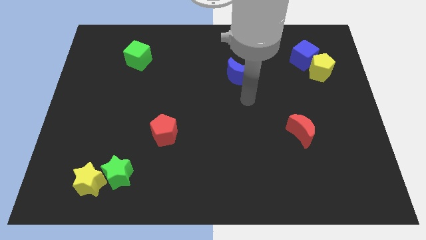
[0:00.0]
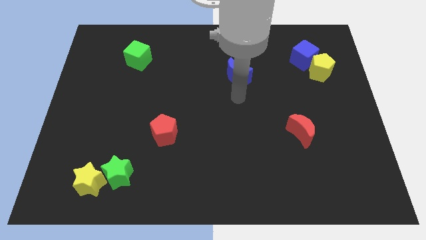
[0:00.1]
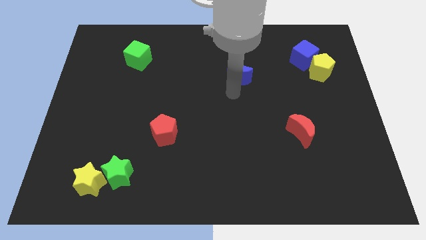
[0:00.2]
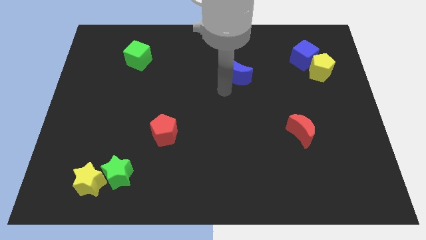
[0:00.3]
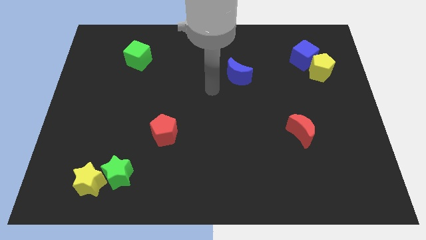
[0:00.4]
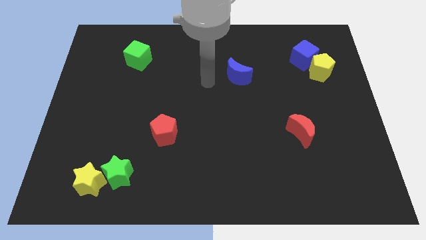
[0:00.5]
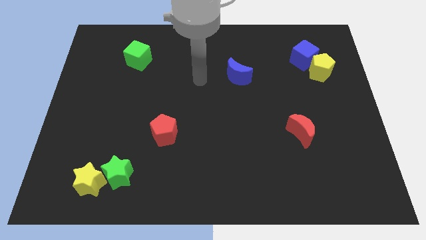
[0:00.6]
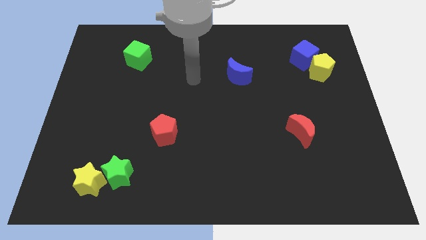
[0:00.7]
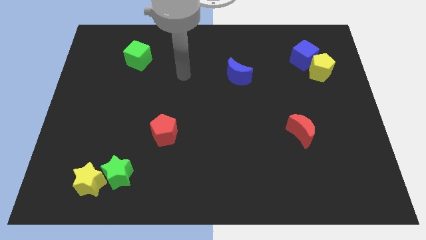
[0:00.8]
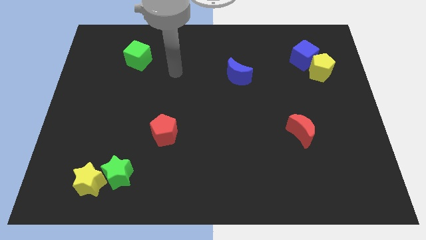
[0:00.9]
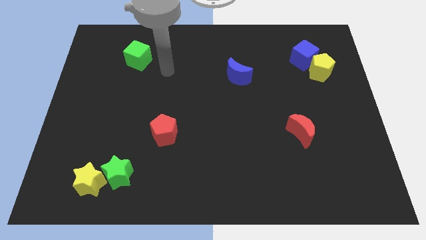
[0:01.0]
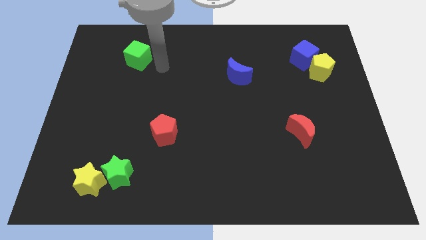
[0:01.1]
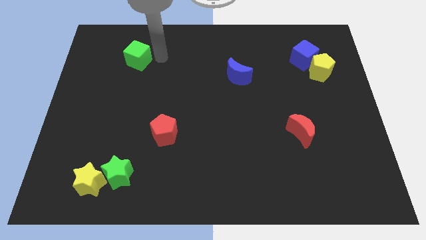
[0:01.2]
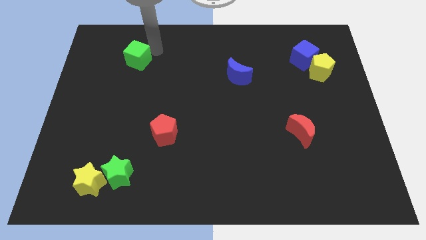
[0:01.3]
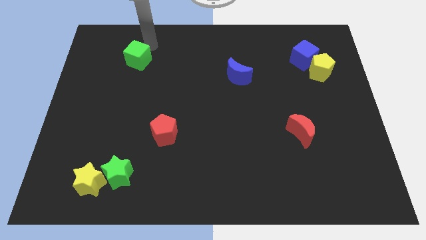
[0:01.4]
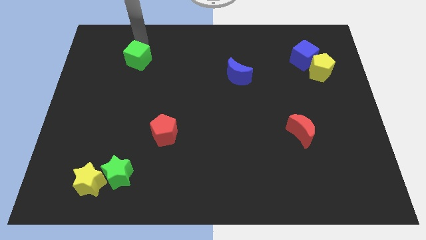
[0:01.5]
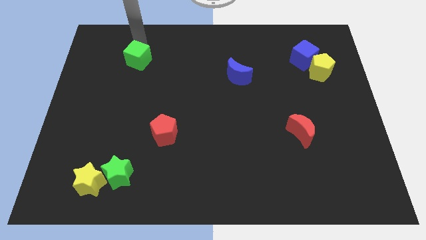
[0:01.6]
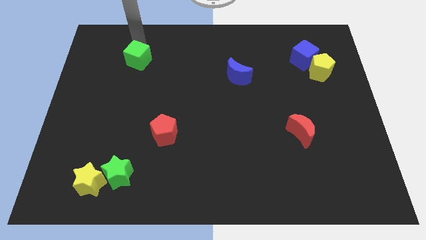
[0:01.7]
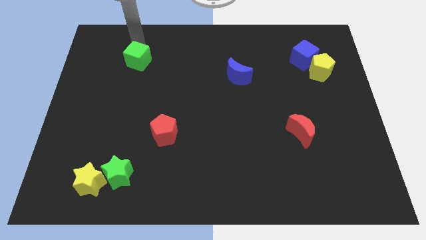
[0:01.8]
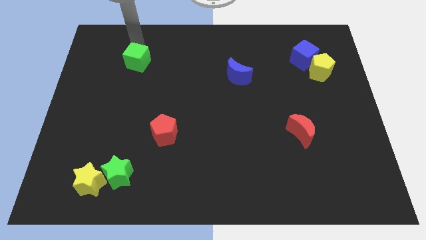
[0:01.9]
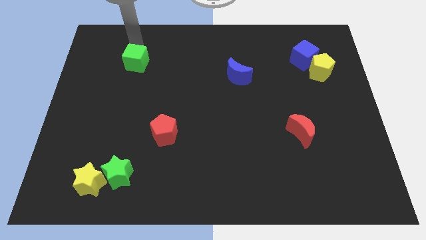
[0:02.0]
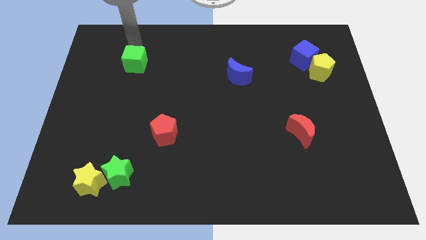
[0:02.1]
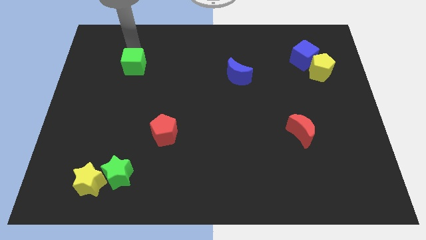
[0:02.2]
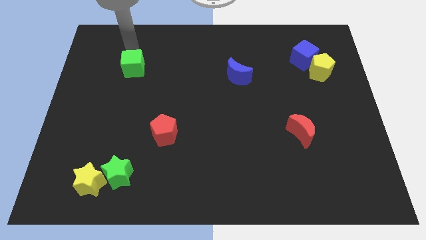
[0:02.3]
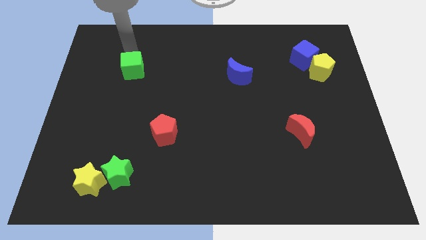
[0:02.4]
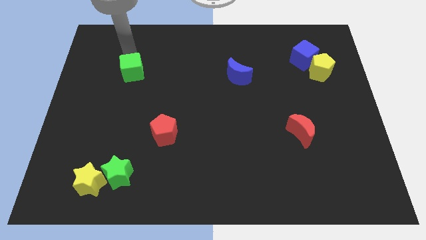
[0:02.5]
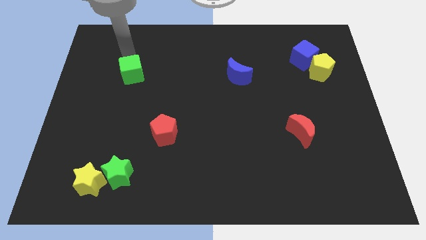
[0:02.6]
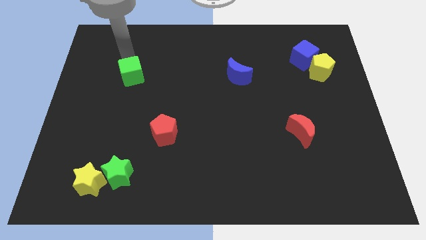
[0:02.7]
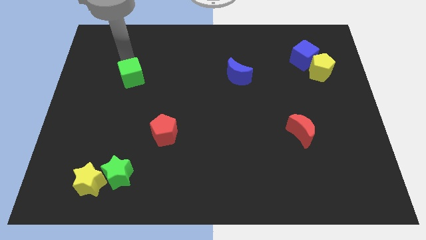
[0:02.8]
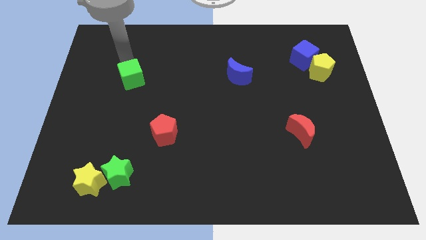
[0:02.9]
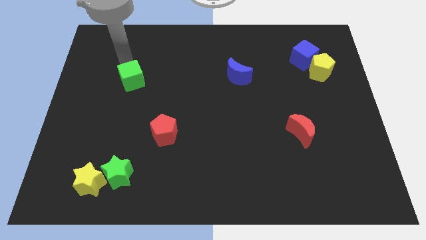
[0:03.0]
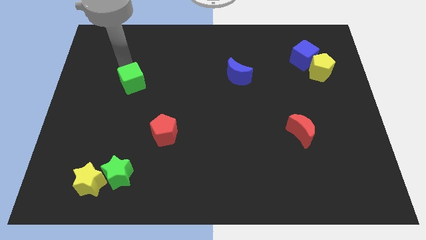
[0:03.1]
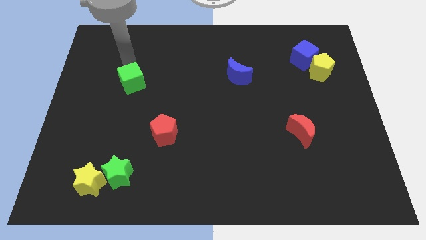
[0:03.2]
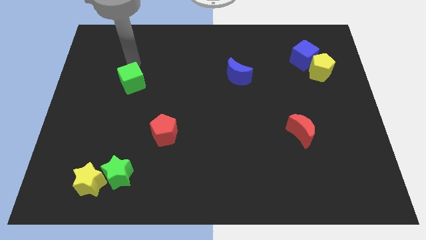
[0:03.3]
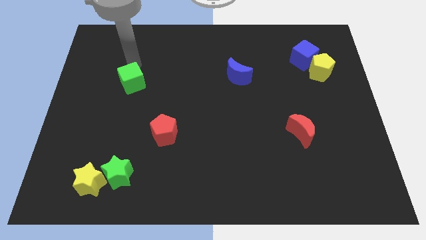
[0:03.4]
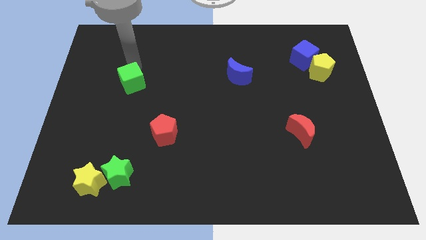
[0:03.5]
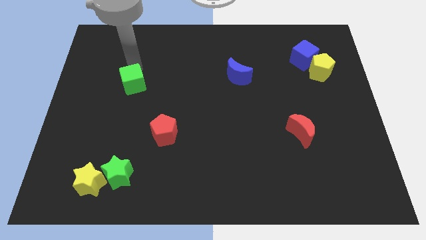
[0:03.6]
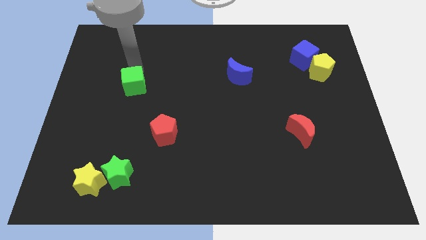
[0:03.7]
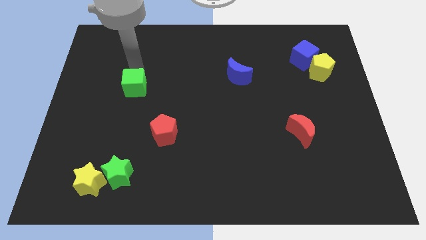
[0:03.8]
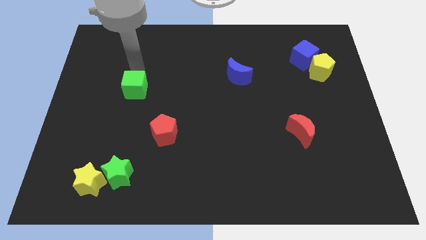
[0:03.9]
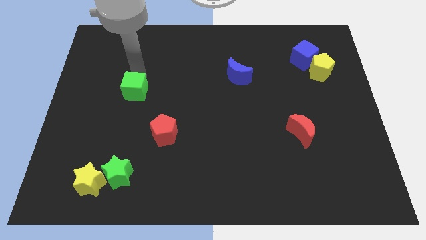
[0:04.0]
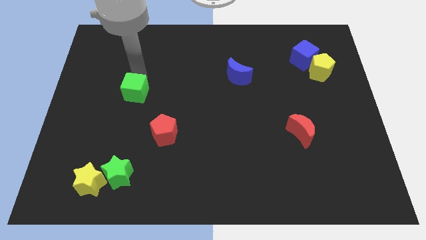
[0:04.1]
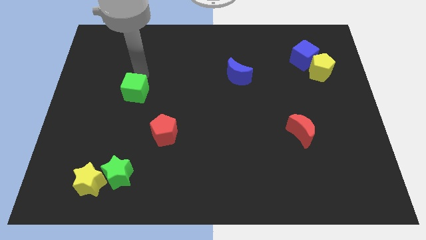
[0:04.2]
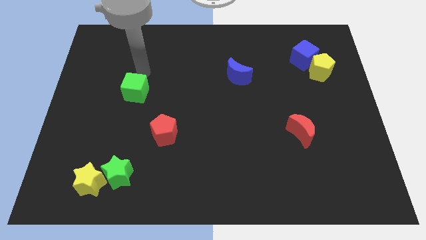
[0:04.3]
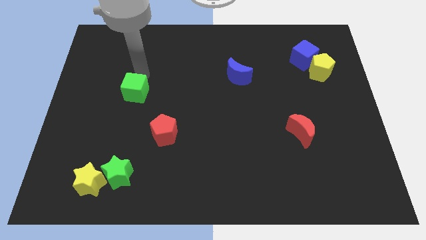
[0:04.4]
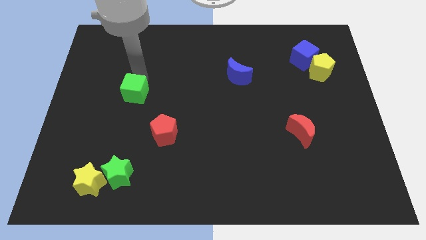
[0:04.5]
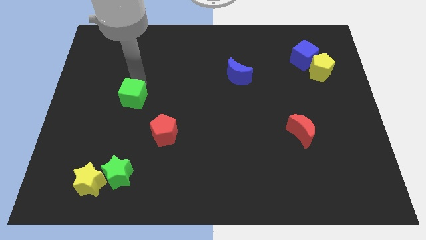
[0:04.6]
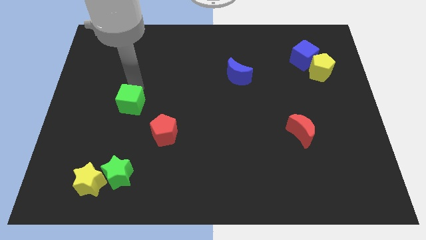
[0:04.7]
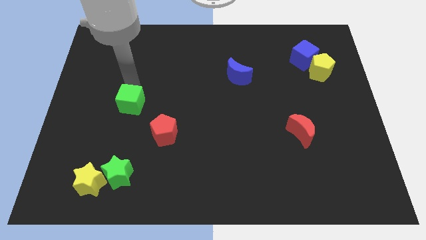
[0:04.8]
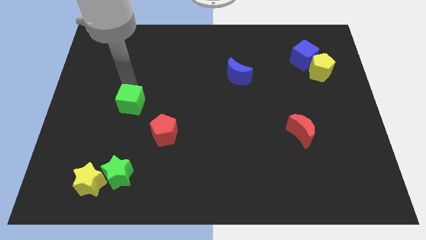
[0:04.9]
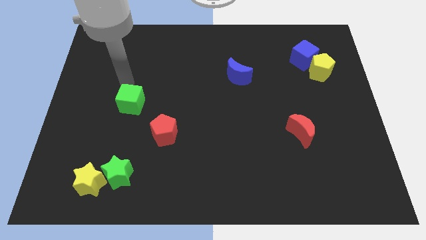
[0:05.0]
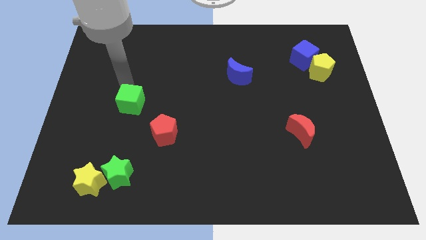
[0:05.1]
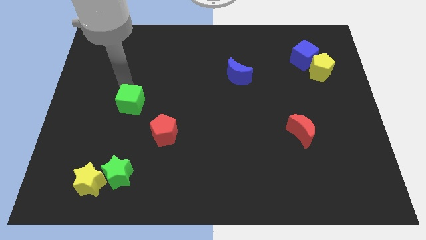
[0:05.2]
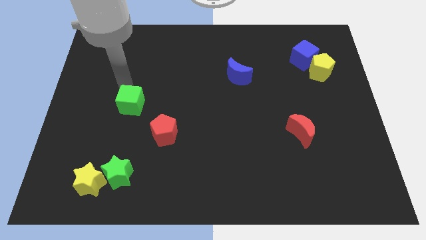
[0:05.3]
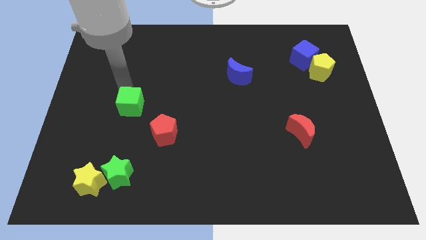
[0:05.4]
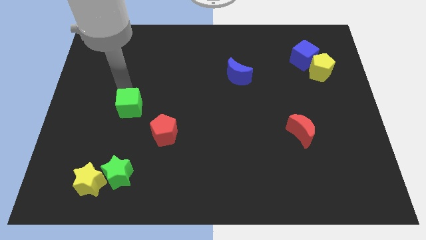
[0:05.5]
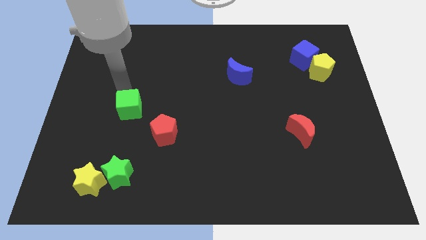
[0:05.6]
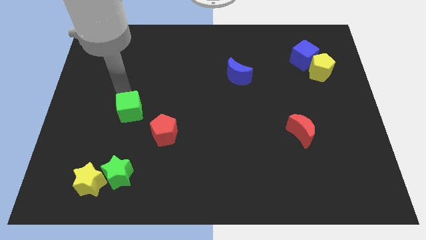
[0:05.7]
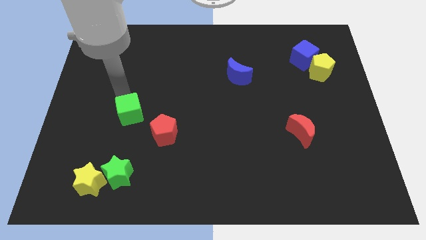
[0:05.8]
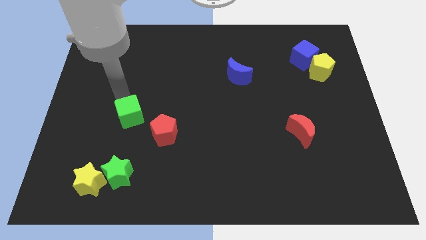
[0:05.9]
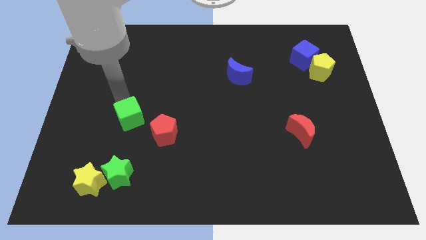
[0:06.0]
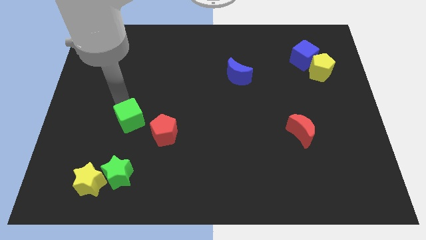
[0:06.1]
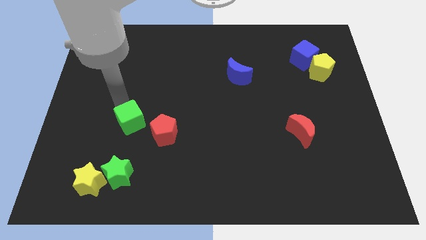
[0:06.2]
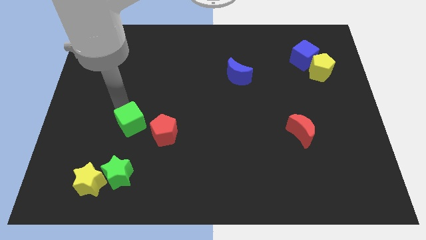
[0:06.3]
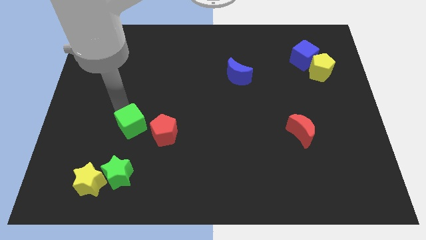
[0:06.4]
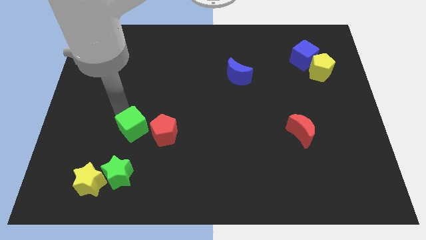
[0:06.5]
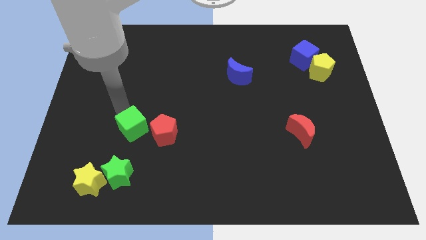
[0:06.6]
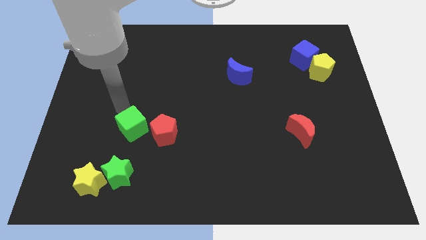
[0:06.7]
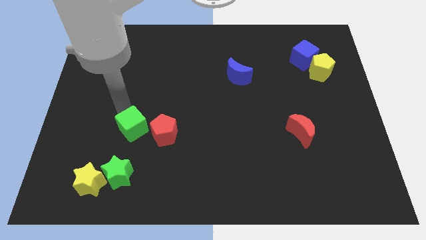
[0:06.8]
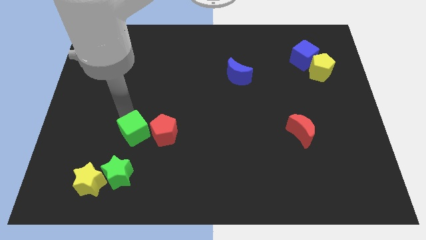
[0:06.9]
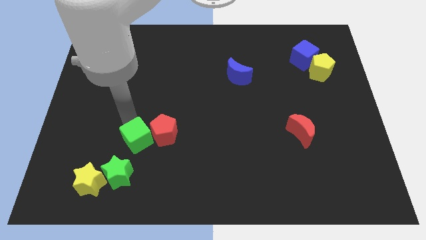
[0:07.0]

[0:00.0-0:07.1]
push the green cube to the top right side of the green star

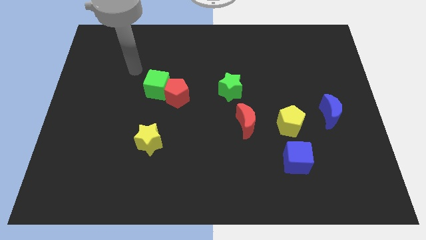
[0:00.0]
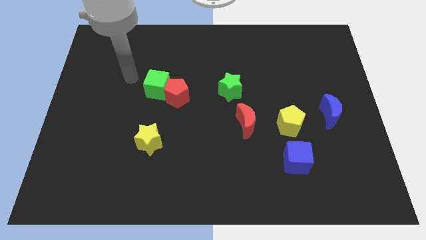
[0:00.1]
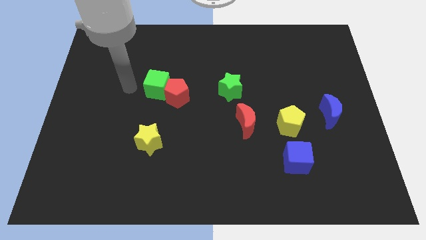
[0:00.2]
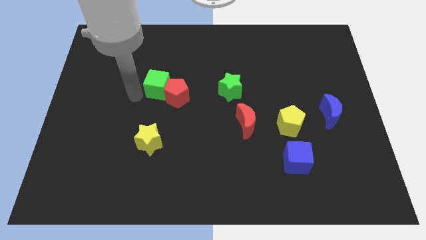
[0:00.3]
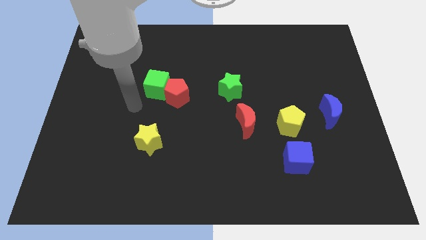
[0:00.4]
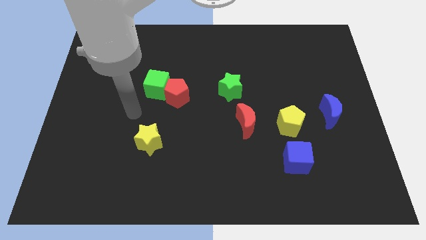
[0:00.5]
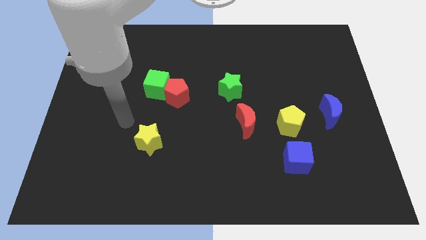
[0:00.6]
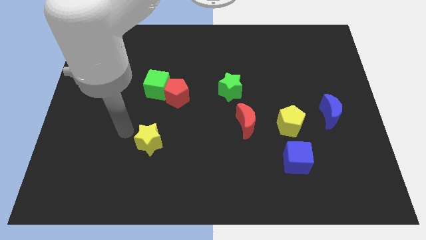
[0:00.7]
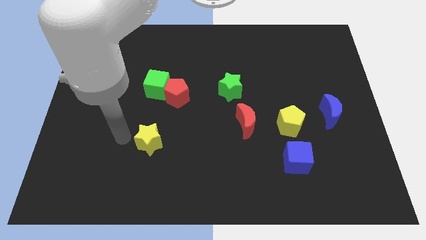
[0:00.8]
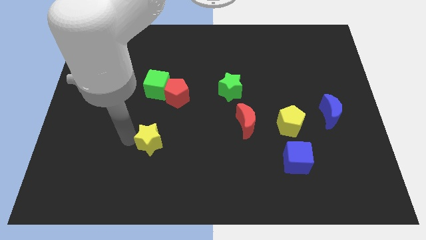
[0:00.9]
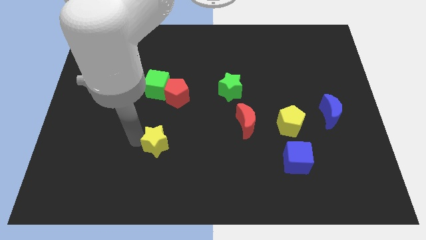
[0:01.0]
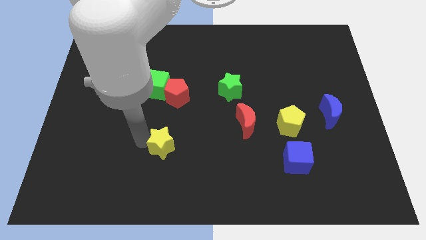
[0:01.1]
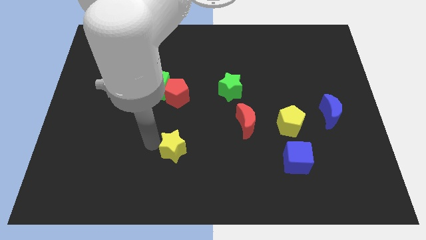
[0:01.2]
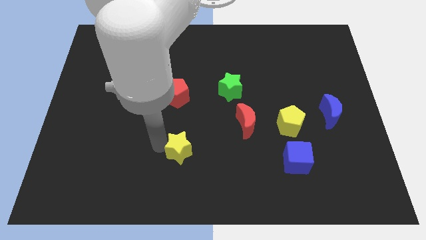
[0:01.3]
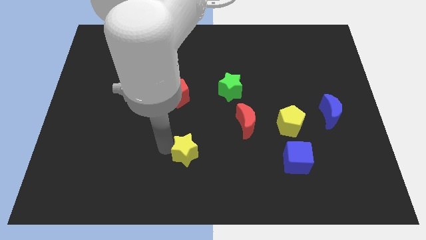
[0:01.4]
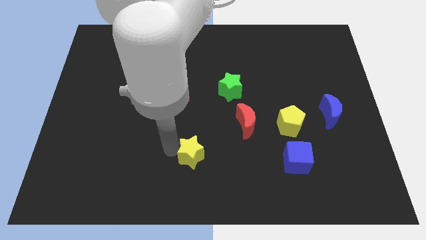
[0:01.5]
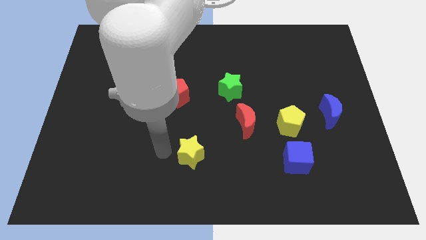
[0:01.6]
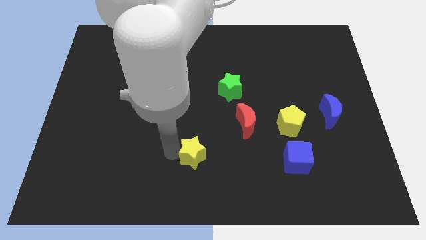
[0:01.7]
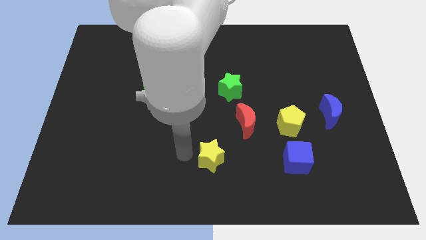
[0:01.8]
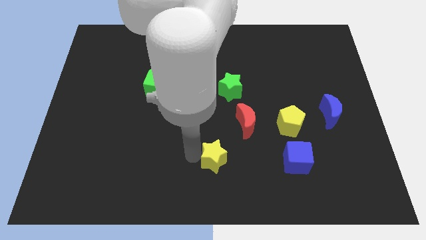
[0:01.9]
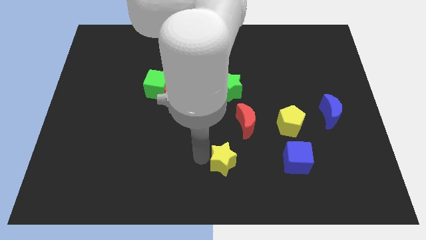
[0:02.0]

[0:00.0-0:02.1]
put the yellow star to the left side of the blue cube
